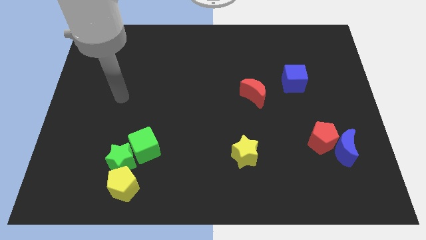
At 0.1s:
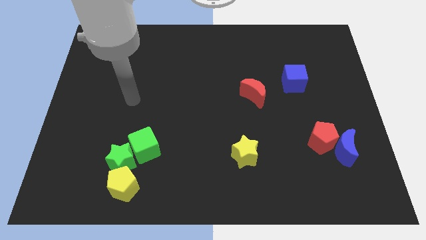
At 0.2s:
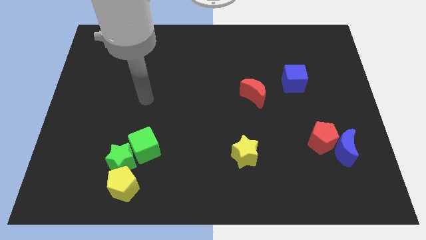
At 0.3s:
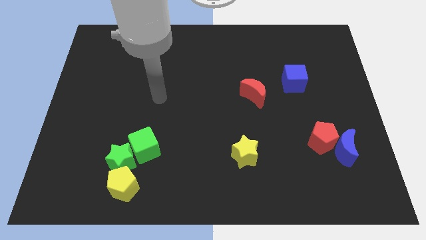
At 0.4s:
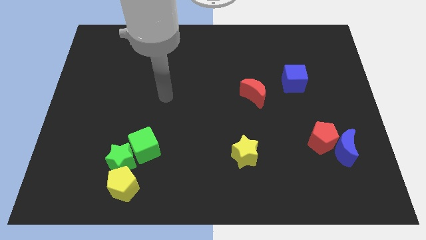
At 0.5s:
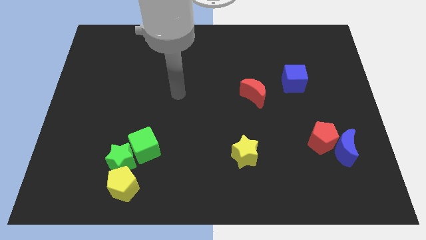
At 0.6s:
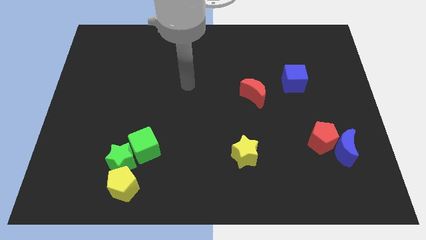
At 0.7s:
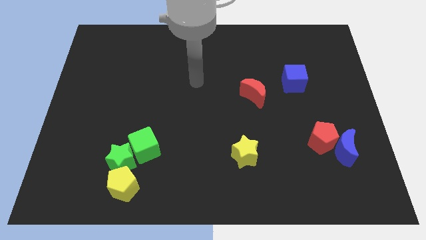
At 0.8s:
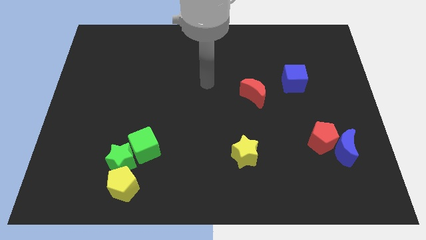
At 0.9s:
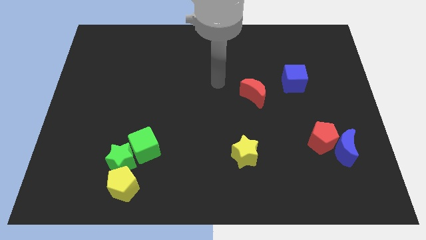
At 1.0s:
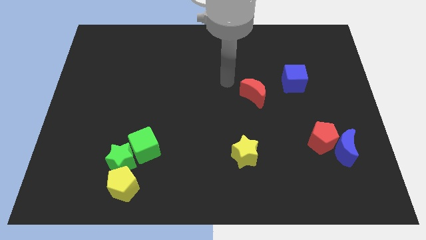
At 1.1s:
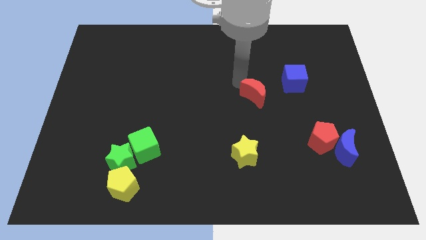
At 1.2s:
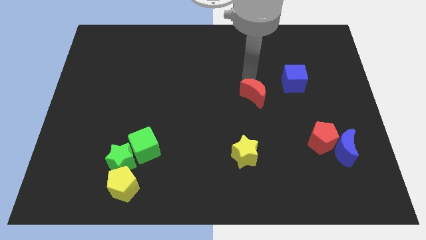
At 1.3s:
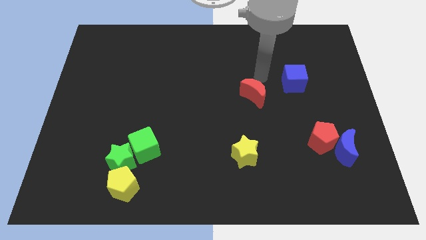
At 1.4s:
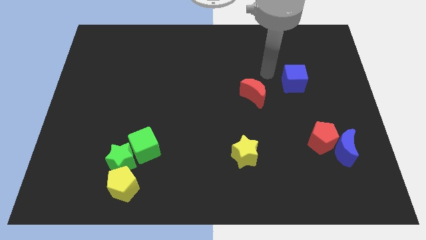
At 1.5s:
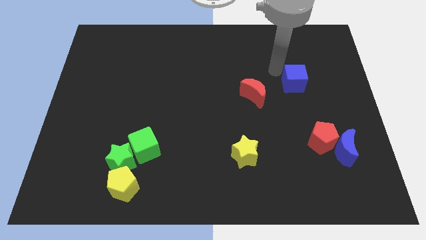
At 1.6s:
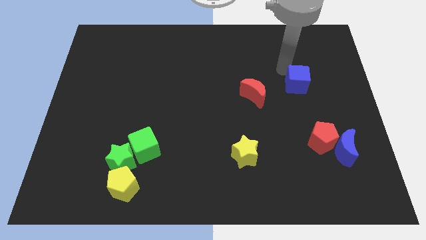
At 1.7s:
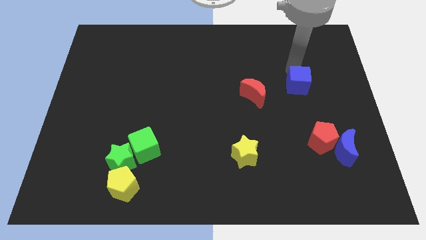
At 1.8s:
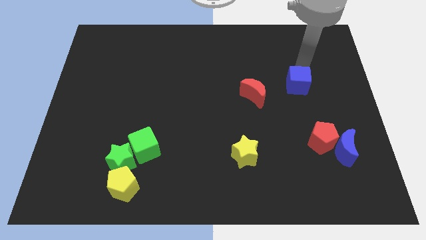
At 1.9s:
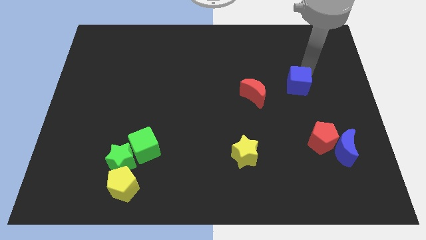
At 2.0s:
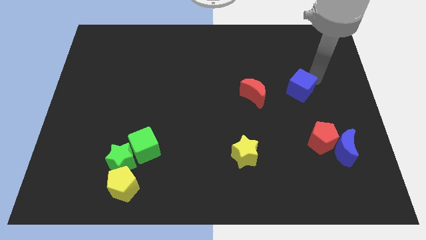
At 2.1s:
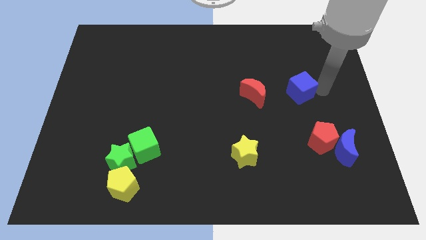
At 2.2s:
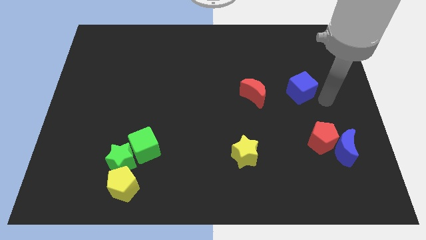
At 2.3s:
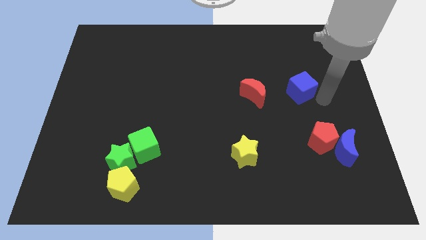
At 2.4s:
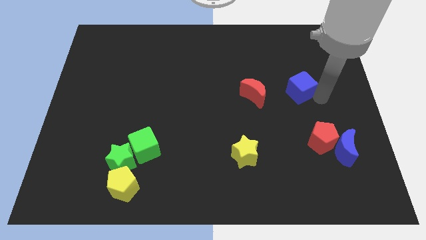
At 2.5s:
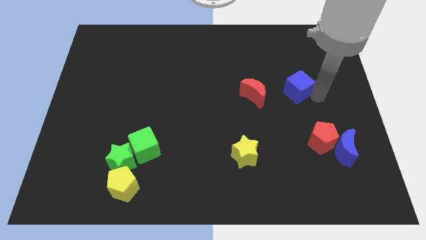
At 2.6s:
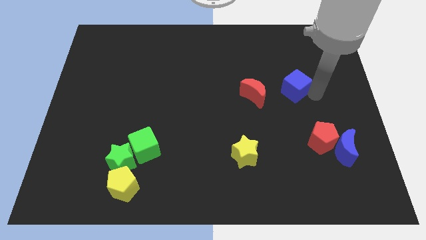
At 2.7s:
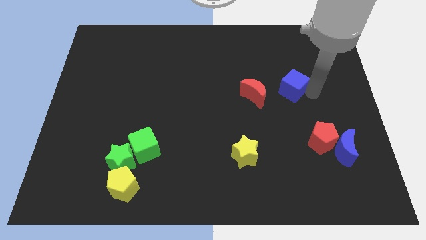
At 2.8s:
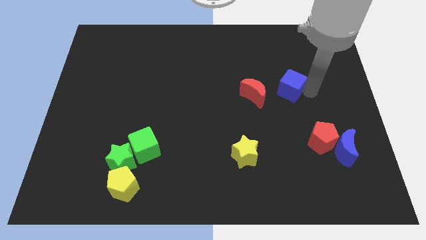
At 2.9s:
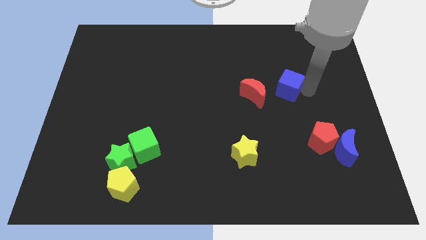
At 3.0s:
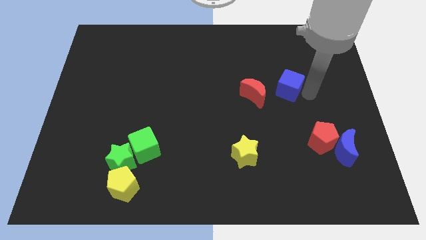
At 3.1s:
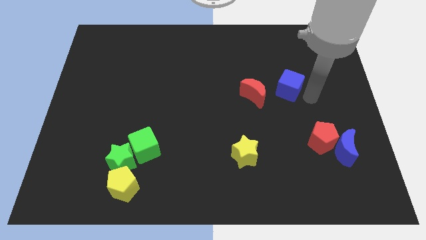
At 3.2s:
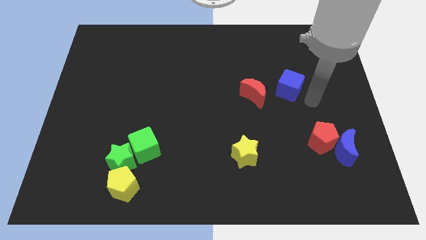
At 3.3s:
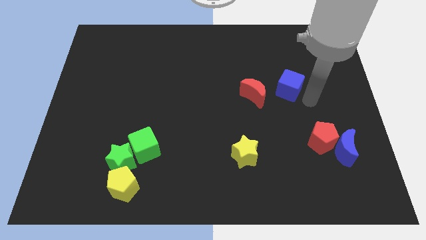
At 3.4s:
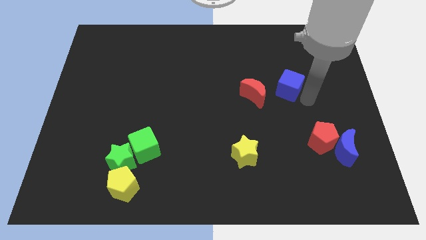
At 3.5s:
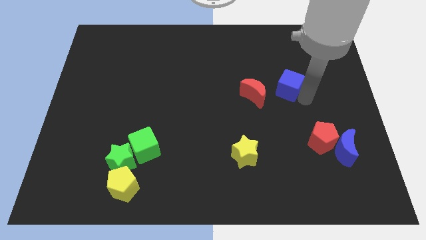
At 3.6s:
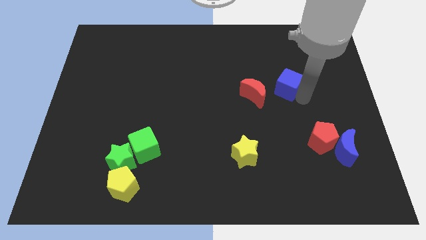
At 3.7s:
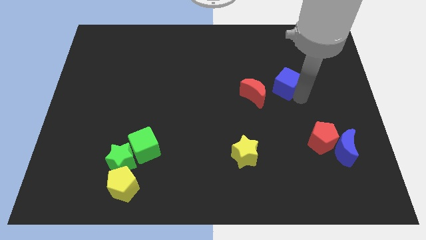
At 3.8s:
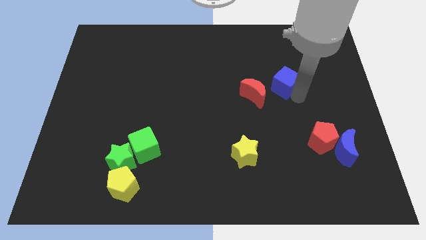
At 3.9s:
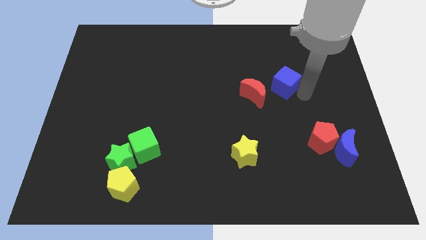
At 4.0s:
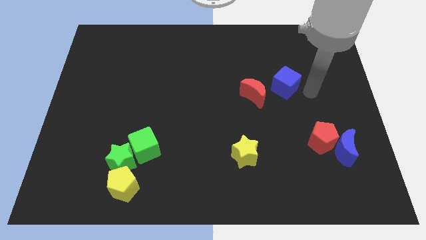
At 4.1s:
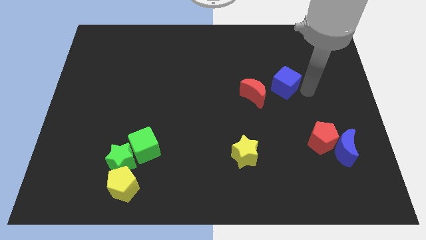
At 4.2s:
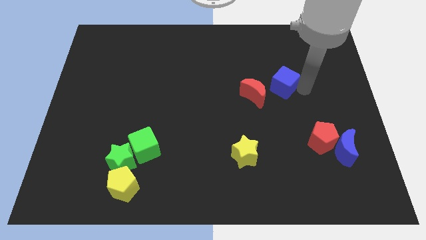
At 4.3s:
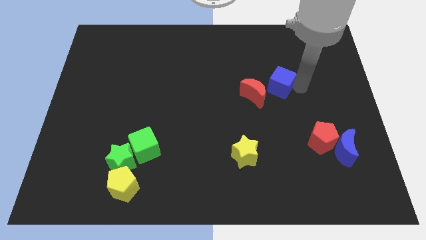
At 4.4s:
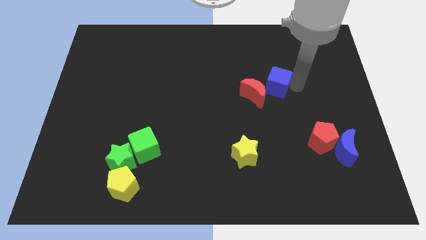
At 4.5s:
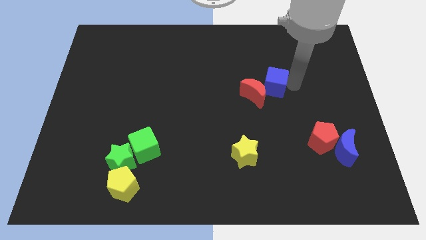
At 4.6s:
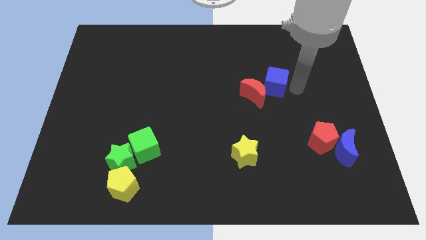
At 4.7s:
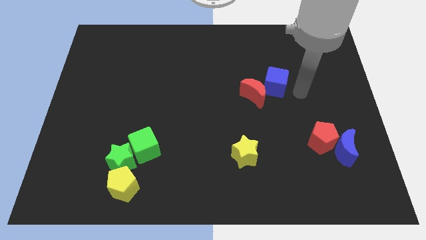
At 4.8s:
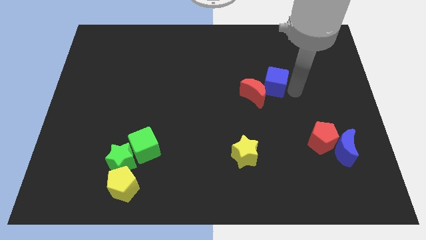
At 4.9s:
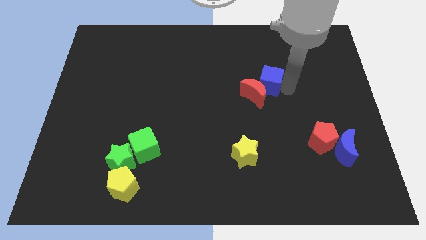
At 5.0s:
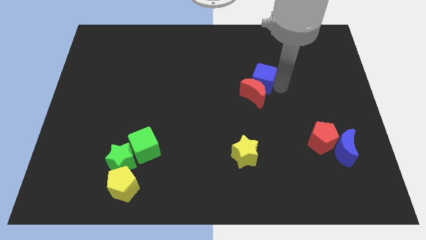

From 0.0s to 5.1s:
move the blue cube to the left somewhat

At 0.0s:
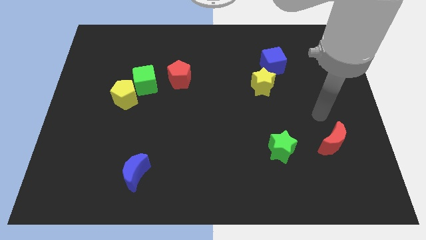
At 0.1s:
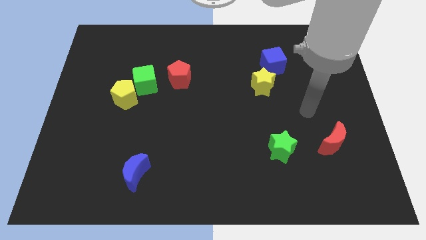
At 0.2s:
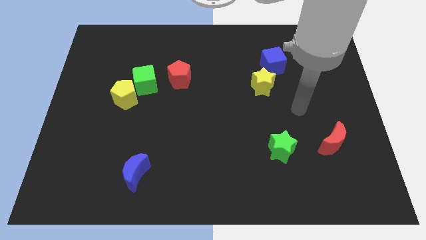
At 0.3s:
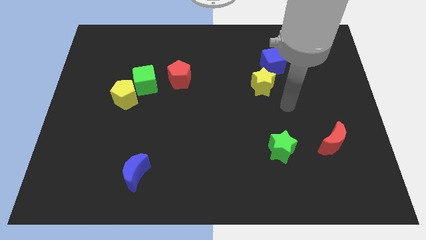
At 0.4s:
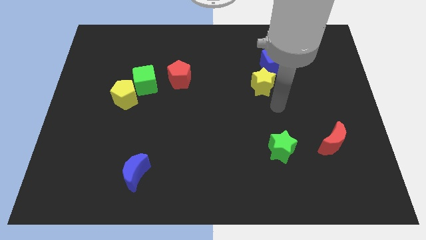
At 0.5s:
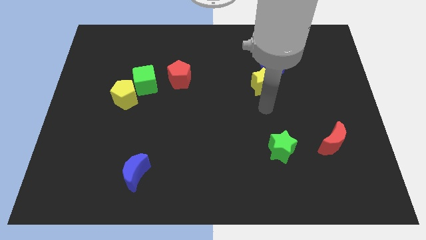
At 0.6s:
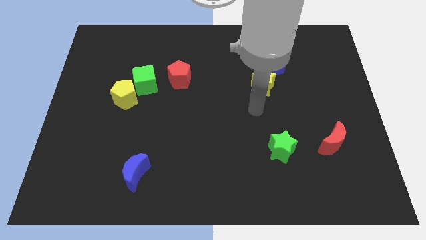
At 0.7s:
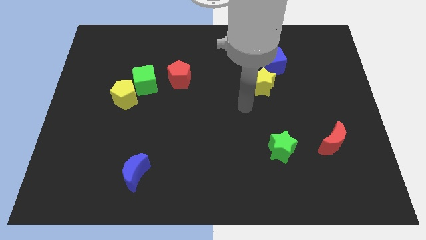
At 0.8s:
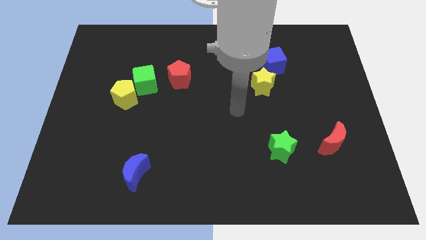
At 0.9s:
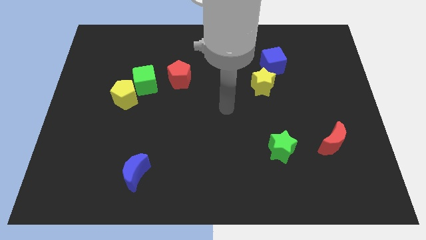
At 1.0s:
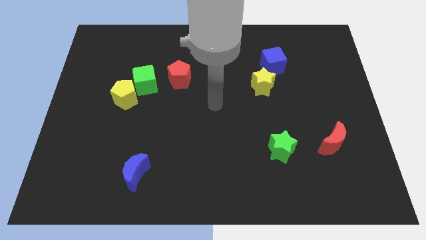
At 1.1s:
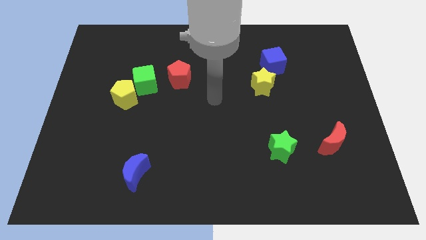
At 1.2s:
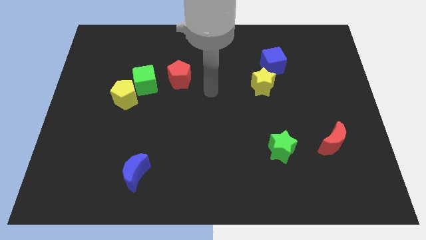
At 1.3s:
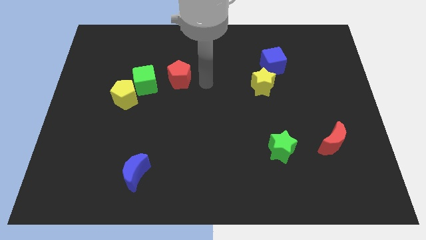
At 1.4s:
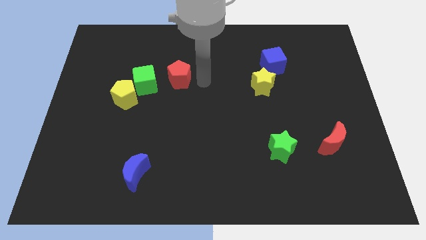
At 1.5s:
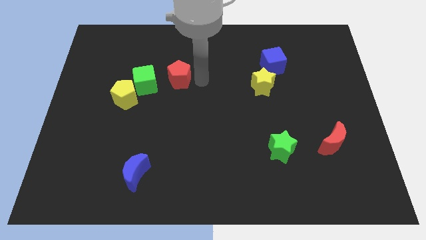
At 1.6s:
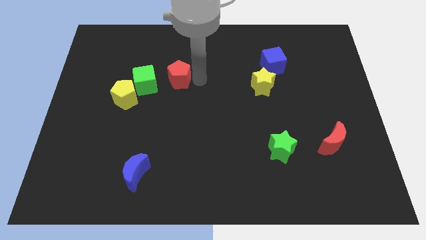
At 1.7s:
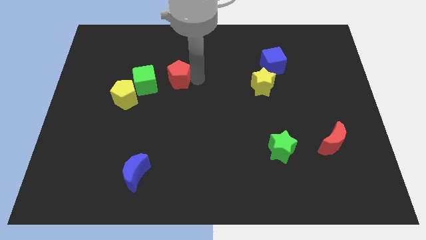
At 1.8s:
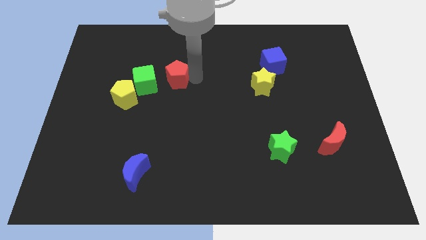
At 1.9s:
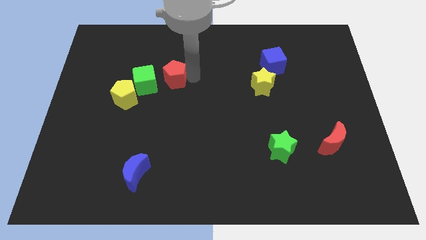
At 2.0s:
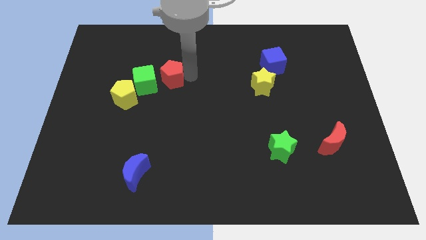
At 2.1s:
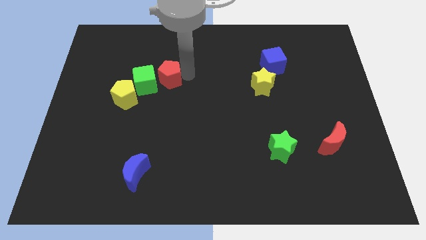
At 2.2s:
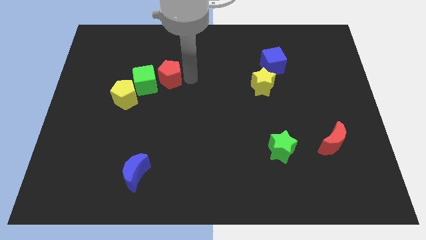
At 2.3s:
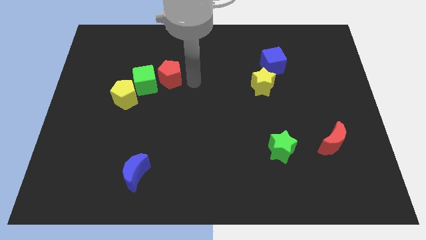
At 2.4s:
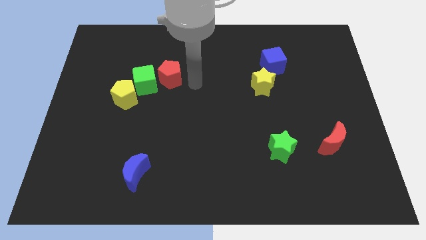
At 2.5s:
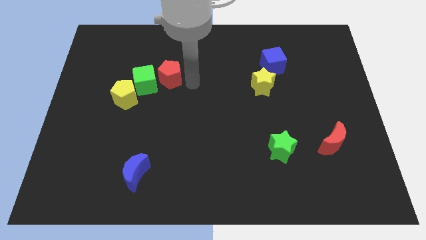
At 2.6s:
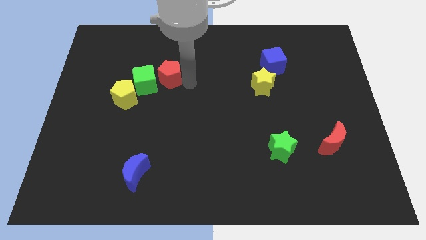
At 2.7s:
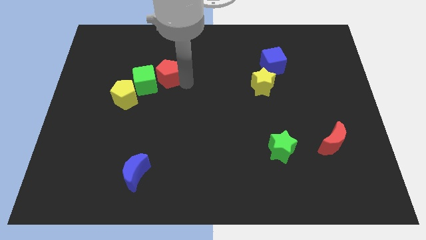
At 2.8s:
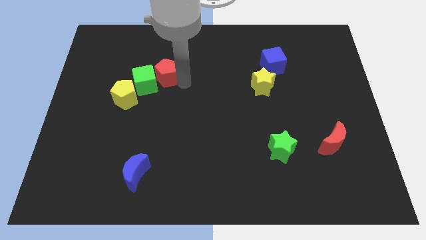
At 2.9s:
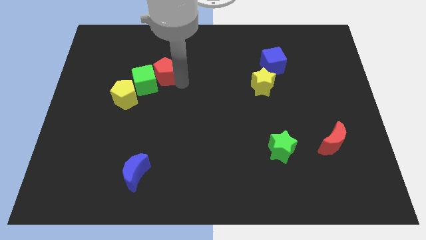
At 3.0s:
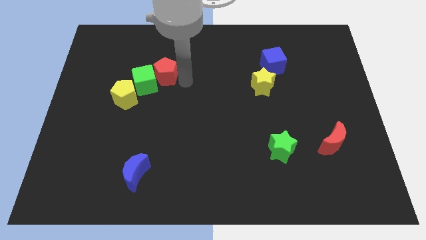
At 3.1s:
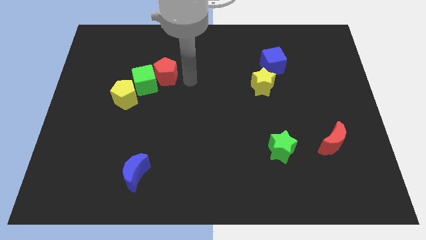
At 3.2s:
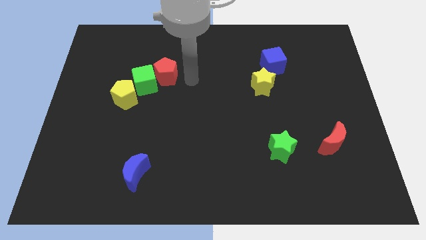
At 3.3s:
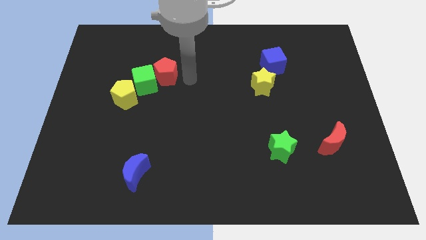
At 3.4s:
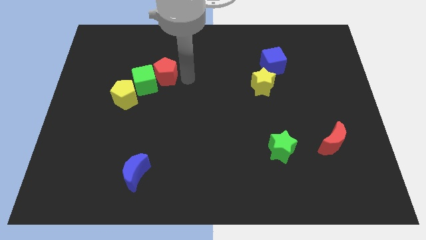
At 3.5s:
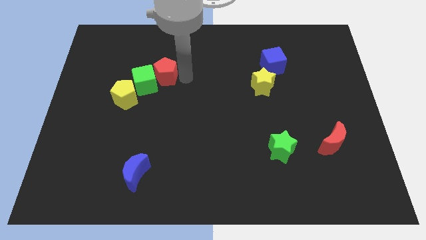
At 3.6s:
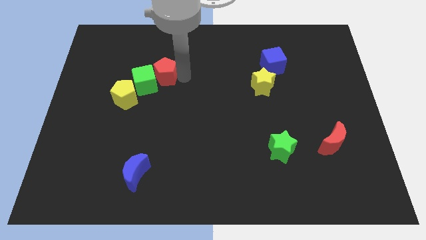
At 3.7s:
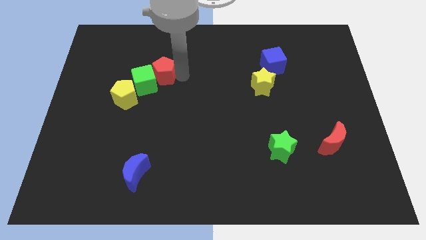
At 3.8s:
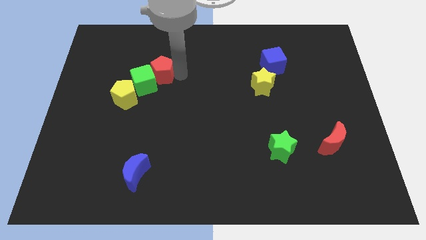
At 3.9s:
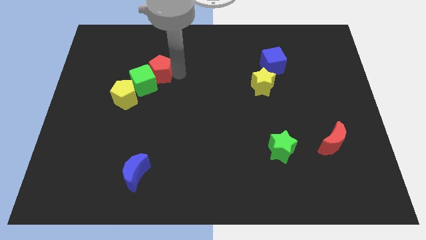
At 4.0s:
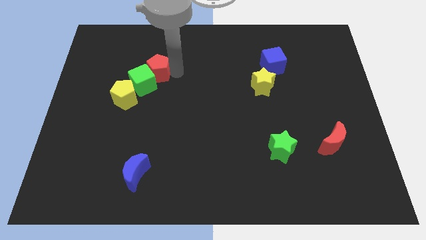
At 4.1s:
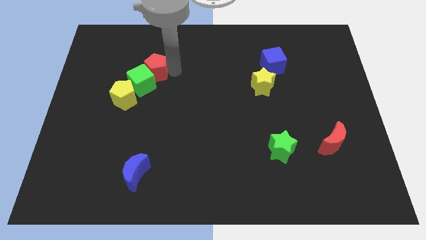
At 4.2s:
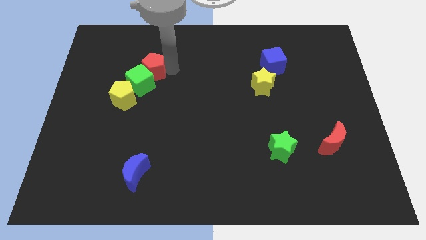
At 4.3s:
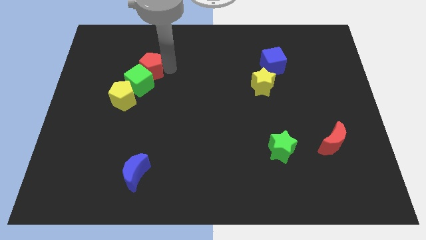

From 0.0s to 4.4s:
slide the red pentagon slightly left
